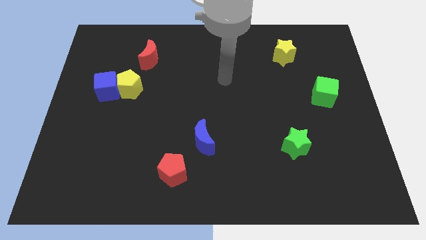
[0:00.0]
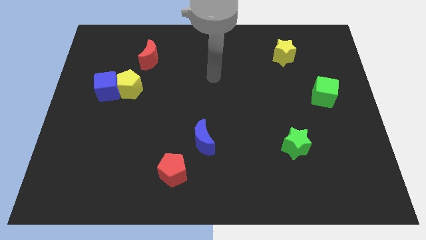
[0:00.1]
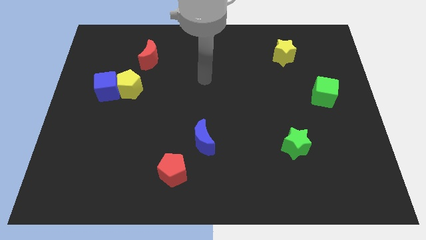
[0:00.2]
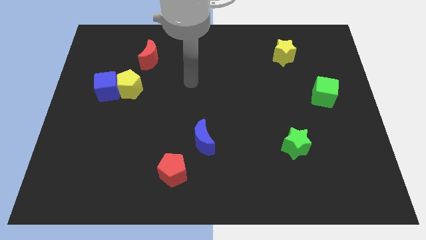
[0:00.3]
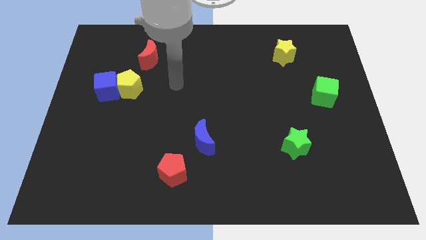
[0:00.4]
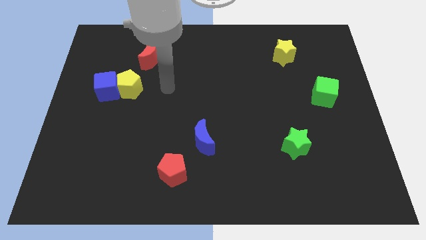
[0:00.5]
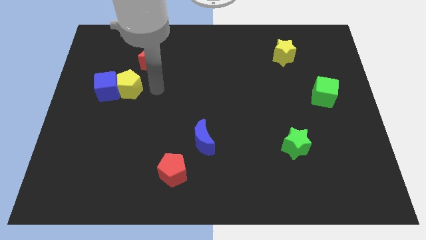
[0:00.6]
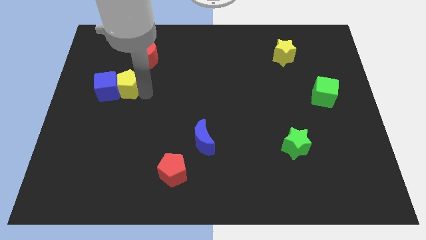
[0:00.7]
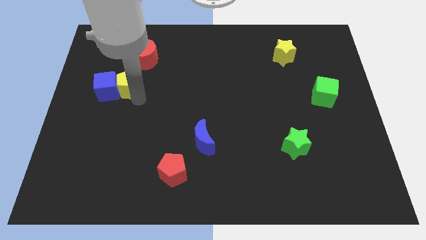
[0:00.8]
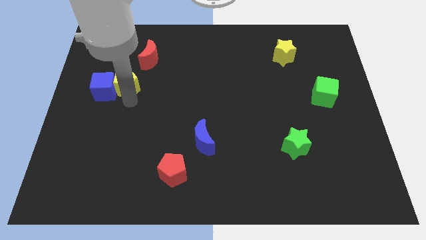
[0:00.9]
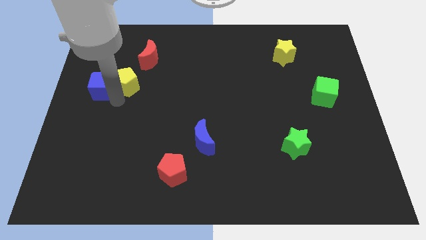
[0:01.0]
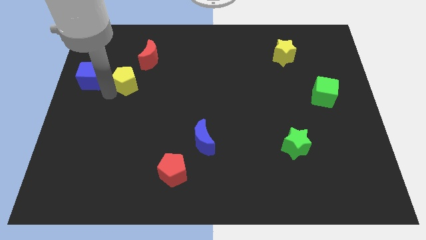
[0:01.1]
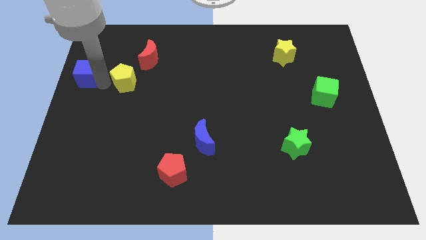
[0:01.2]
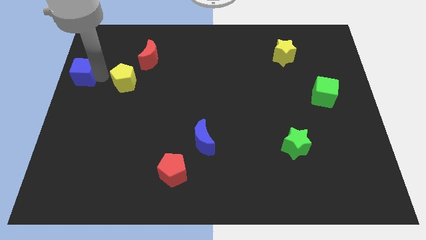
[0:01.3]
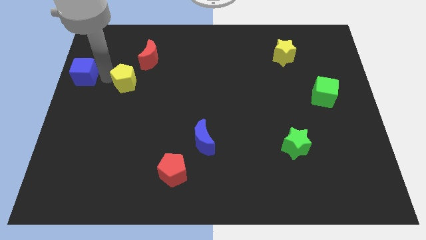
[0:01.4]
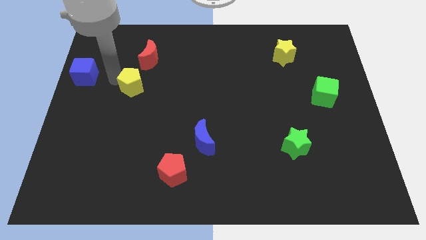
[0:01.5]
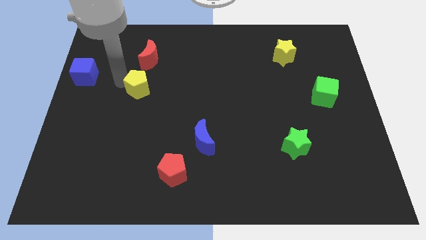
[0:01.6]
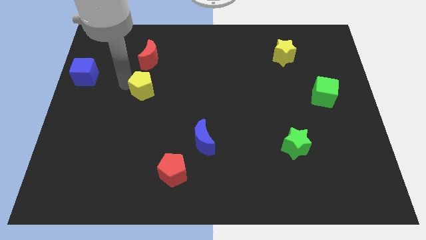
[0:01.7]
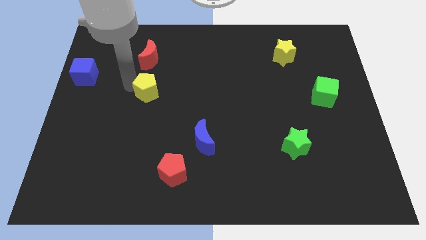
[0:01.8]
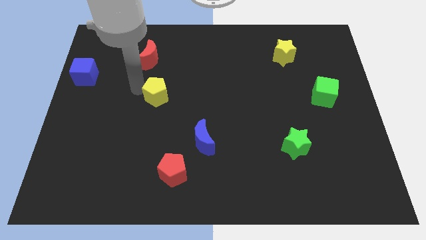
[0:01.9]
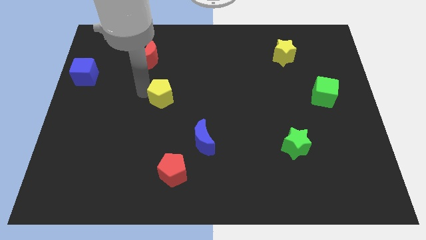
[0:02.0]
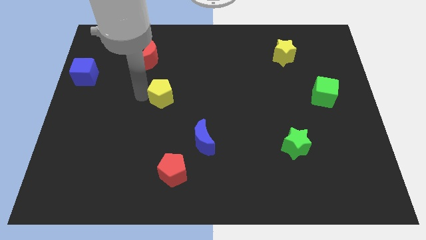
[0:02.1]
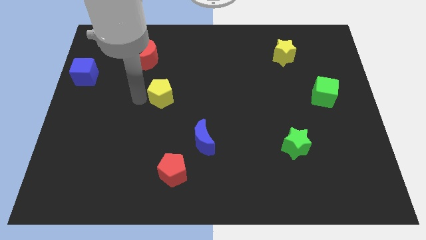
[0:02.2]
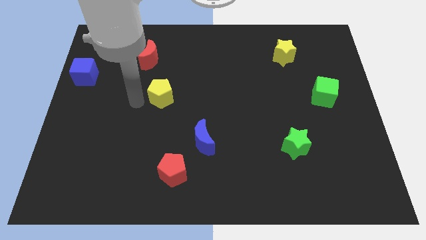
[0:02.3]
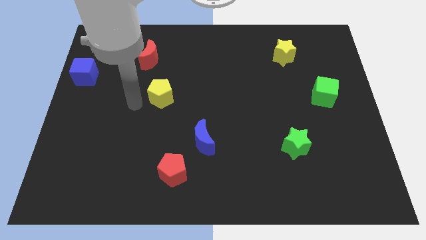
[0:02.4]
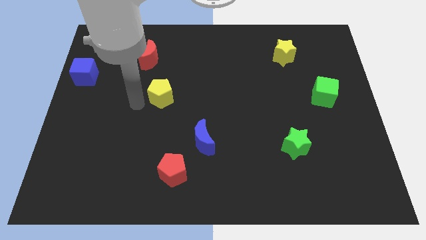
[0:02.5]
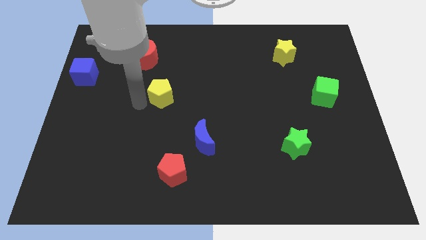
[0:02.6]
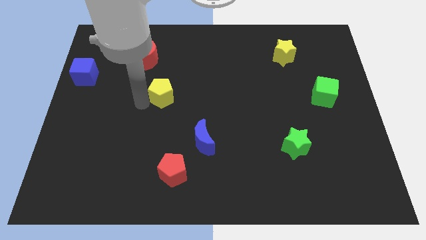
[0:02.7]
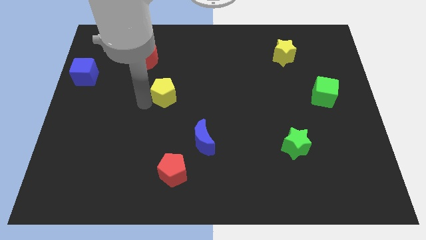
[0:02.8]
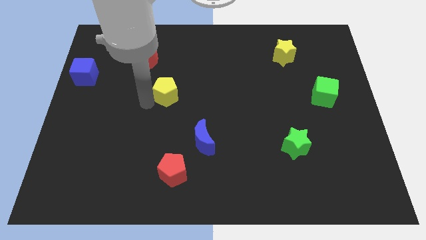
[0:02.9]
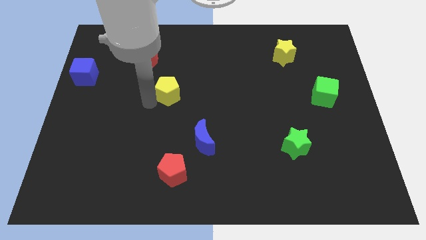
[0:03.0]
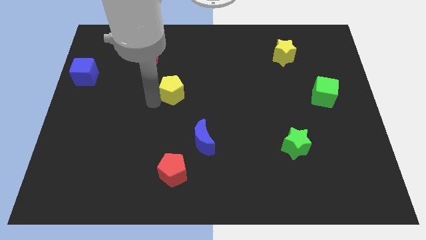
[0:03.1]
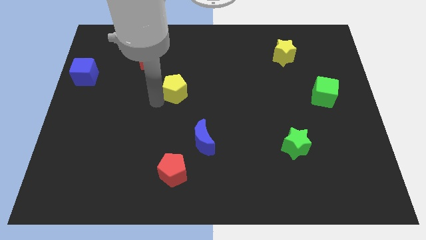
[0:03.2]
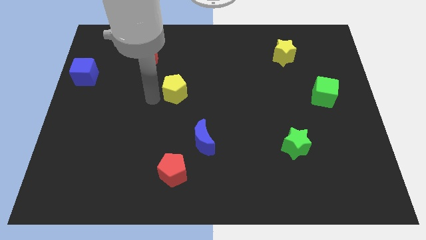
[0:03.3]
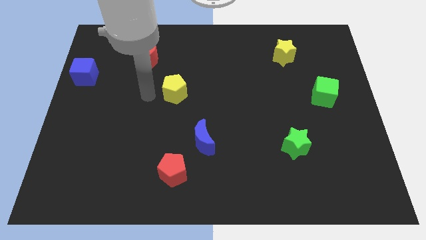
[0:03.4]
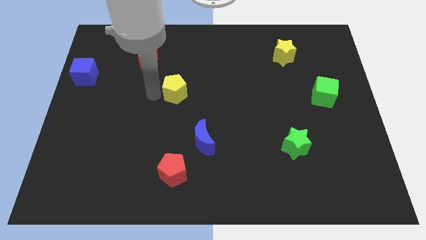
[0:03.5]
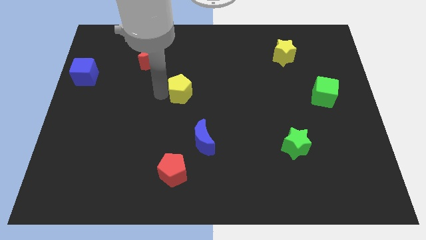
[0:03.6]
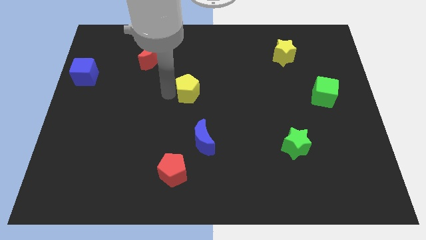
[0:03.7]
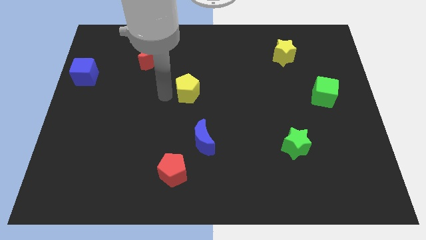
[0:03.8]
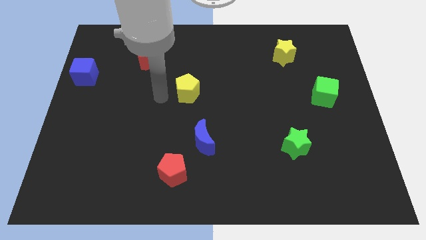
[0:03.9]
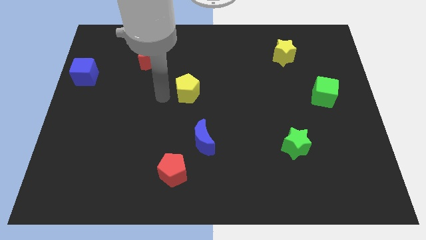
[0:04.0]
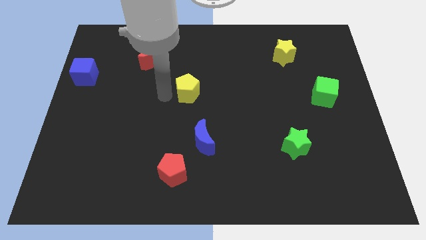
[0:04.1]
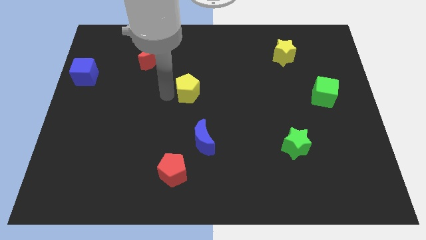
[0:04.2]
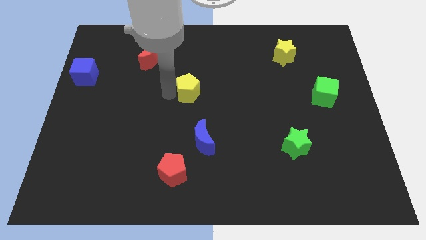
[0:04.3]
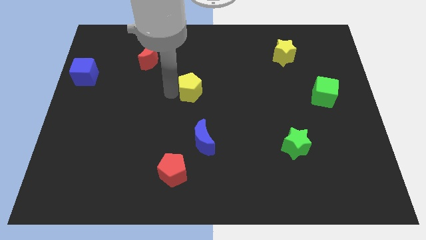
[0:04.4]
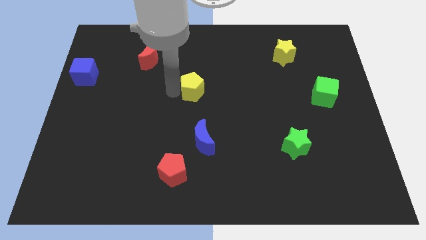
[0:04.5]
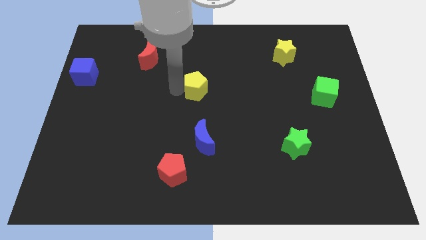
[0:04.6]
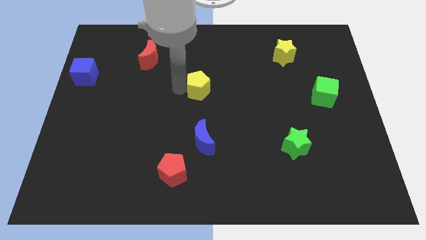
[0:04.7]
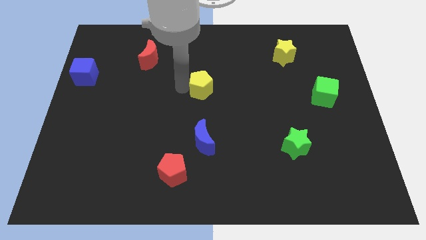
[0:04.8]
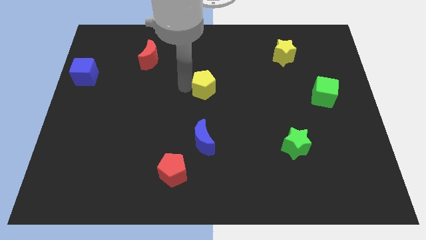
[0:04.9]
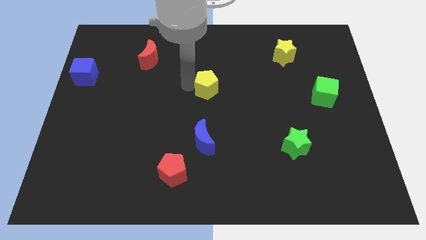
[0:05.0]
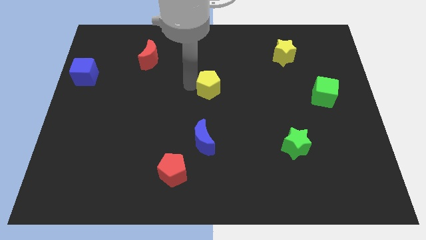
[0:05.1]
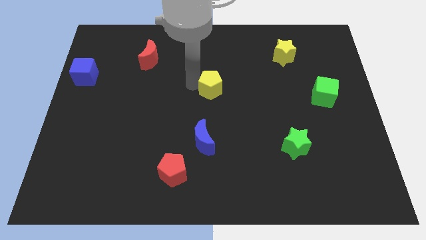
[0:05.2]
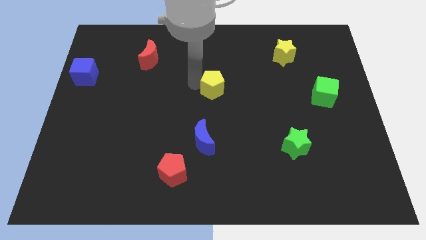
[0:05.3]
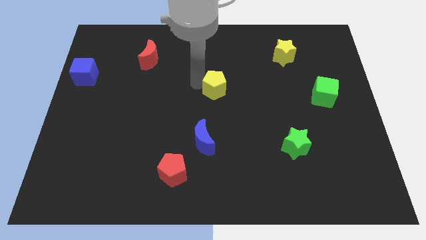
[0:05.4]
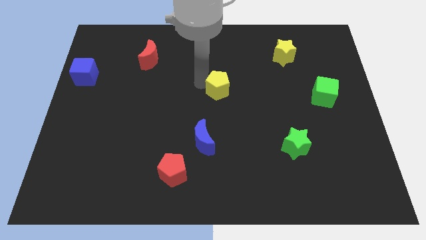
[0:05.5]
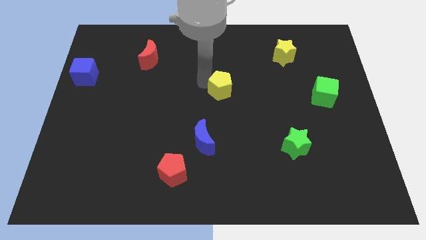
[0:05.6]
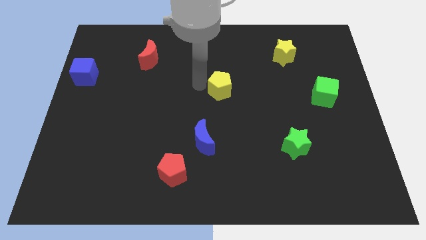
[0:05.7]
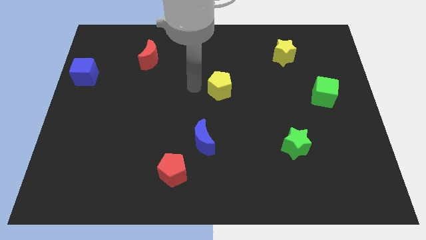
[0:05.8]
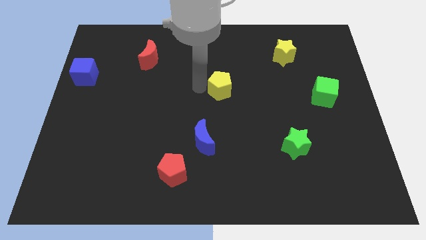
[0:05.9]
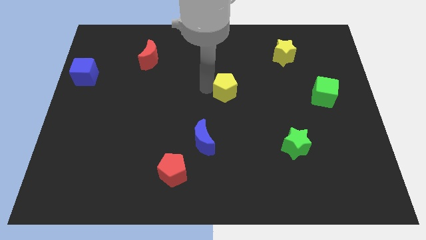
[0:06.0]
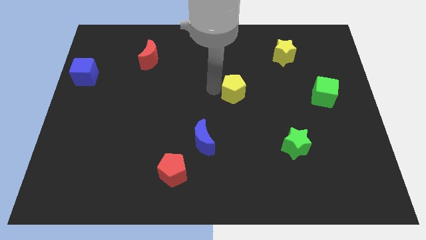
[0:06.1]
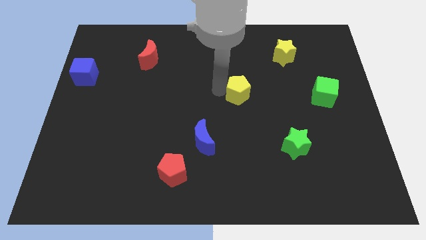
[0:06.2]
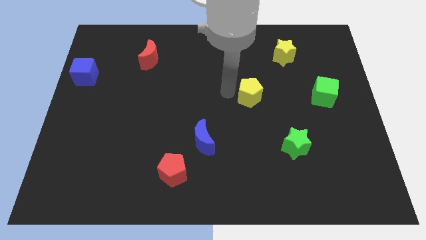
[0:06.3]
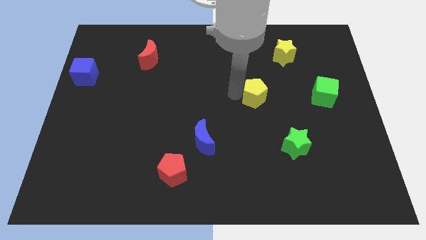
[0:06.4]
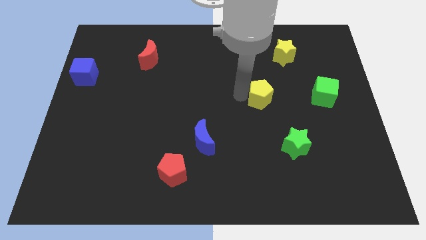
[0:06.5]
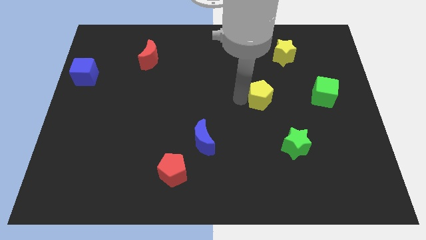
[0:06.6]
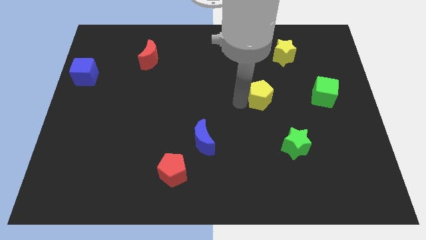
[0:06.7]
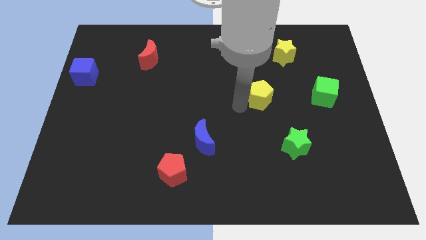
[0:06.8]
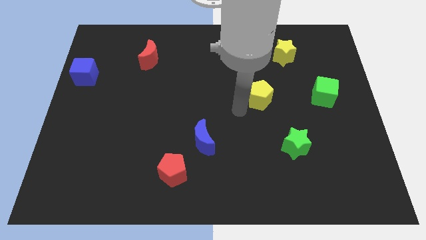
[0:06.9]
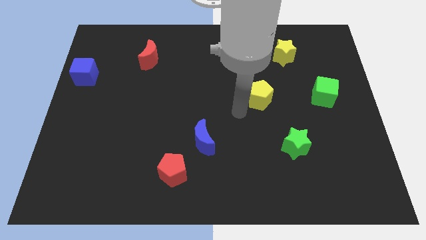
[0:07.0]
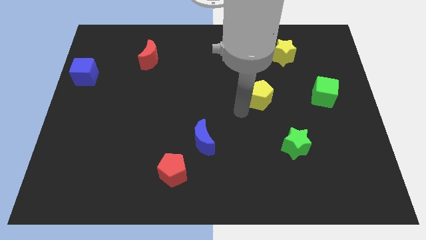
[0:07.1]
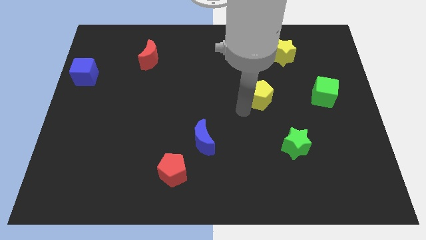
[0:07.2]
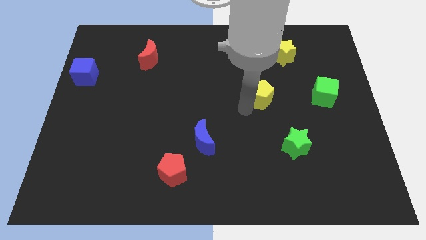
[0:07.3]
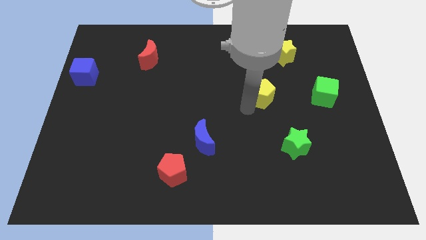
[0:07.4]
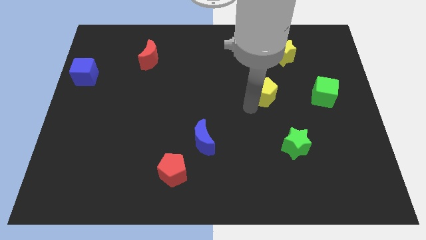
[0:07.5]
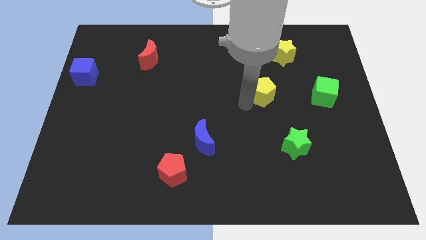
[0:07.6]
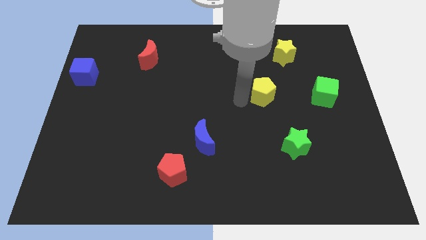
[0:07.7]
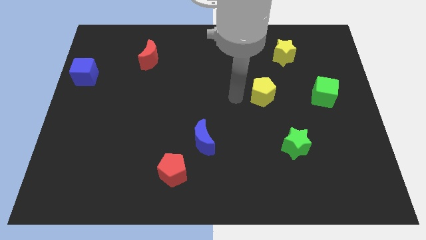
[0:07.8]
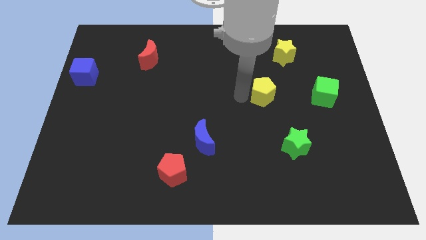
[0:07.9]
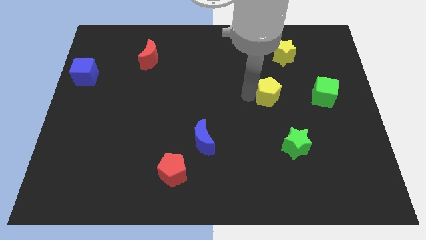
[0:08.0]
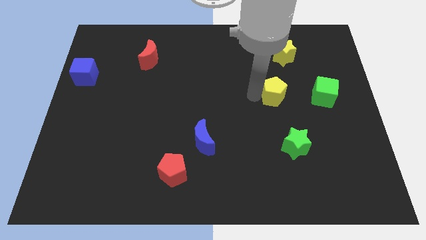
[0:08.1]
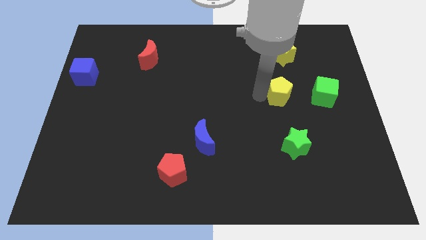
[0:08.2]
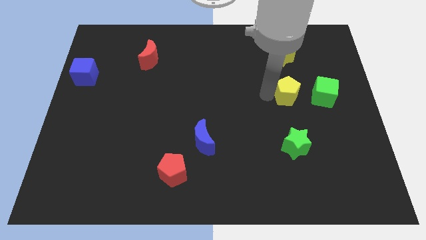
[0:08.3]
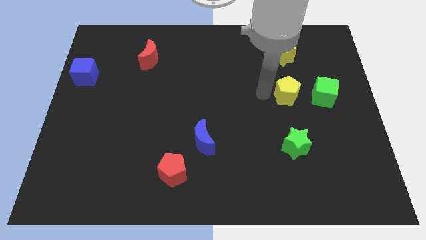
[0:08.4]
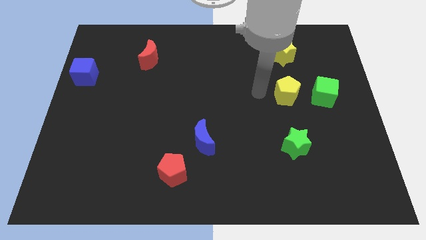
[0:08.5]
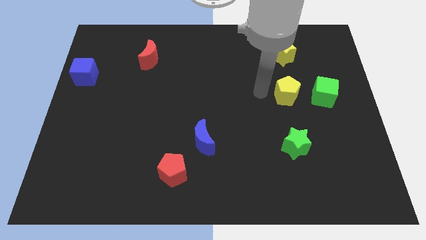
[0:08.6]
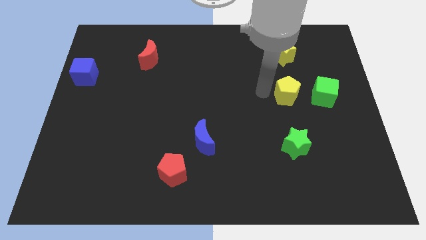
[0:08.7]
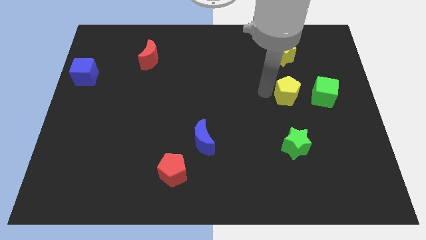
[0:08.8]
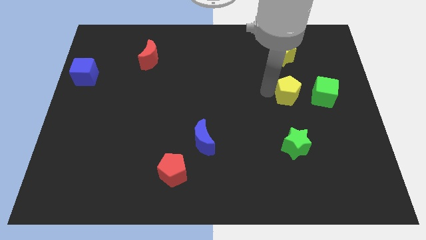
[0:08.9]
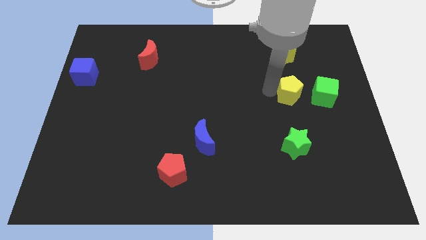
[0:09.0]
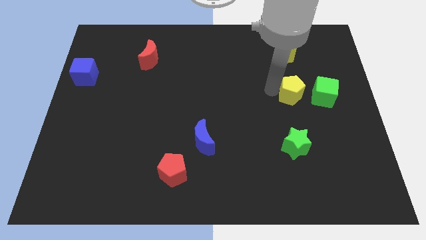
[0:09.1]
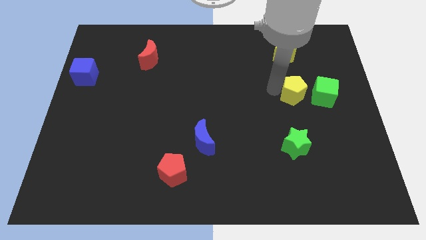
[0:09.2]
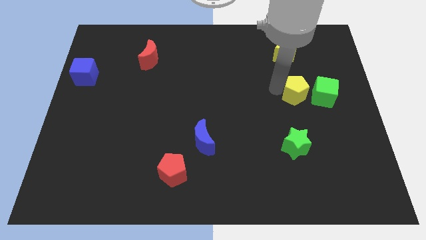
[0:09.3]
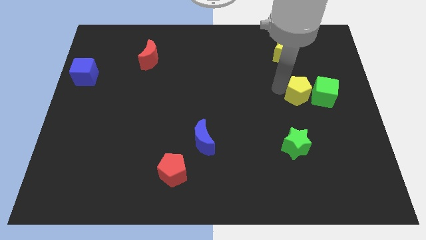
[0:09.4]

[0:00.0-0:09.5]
put the yellow pentagon close to the green cube
